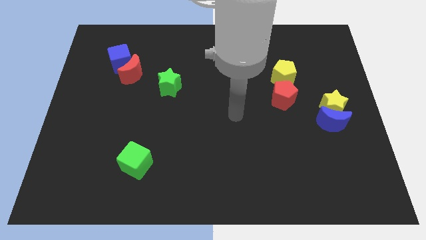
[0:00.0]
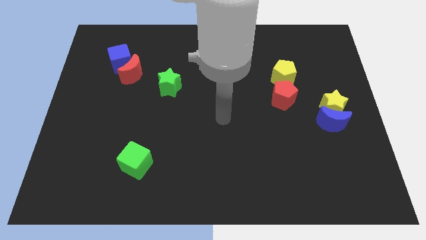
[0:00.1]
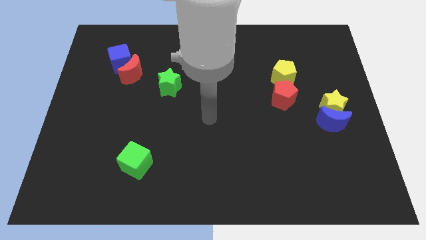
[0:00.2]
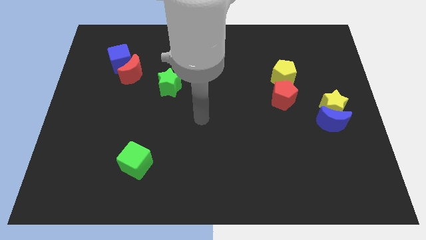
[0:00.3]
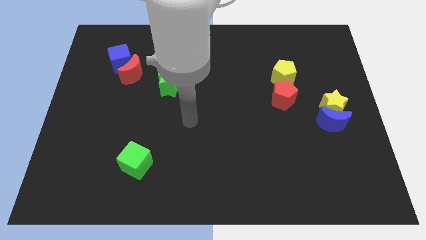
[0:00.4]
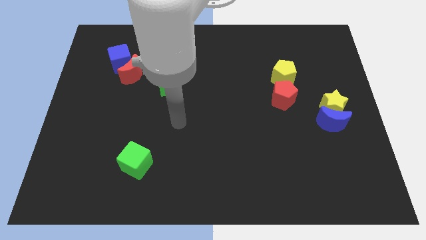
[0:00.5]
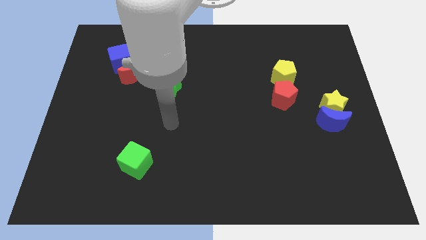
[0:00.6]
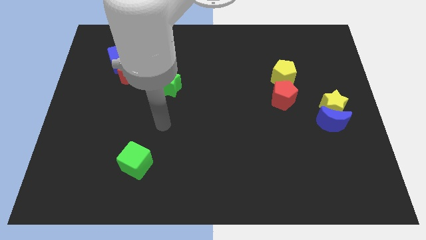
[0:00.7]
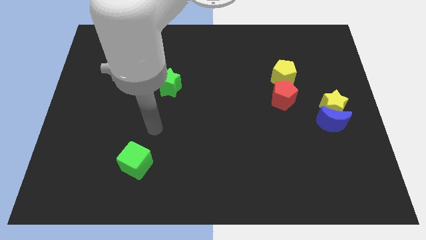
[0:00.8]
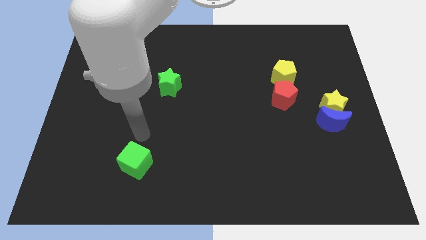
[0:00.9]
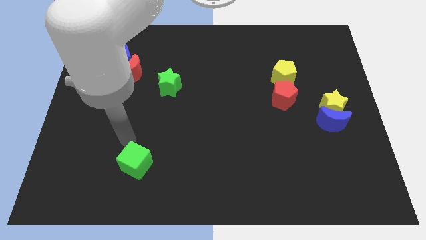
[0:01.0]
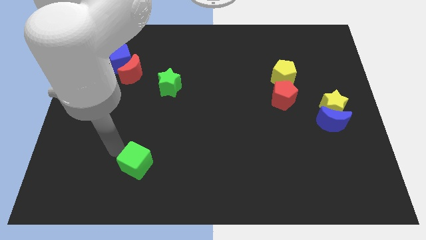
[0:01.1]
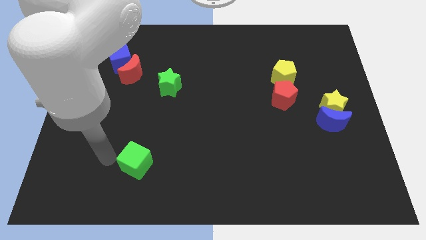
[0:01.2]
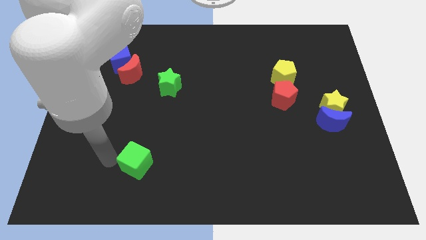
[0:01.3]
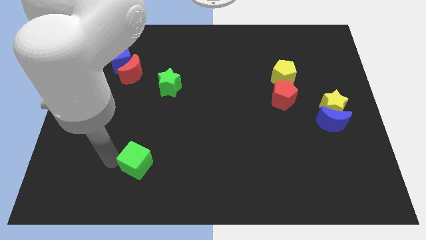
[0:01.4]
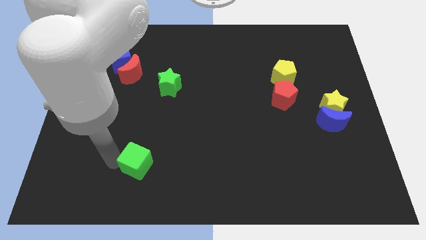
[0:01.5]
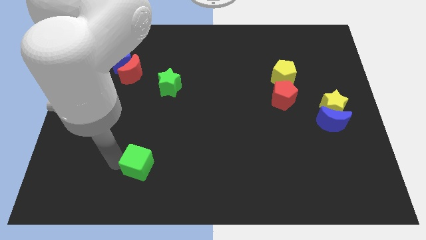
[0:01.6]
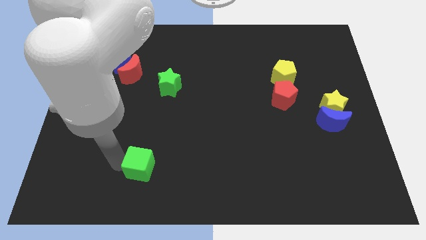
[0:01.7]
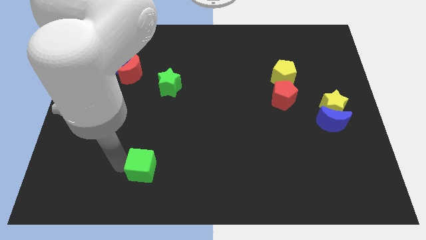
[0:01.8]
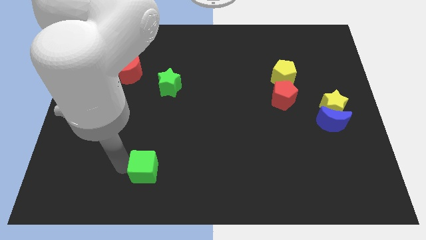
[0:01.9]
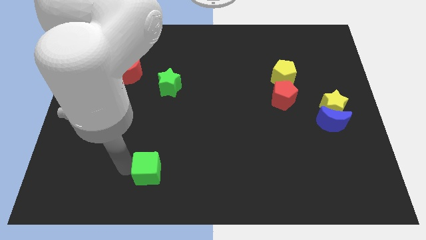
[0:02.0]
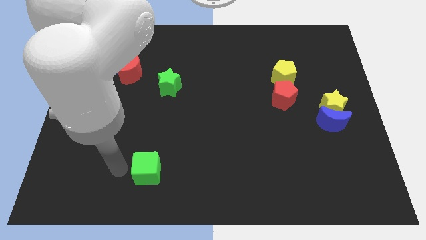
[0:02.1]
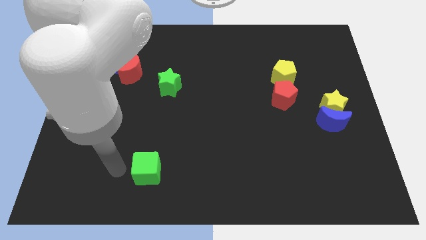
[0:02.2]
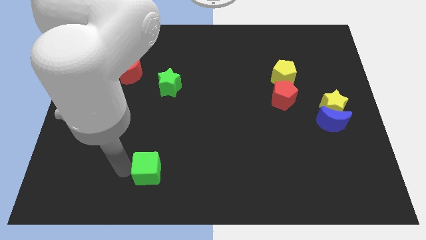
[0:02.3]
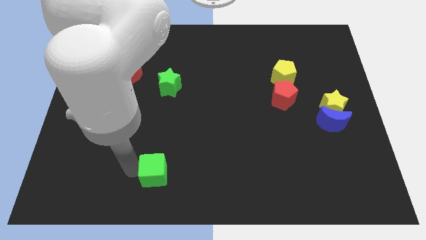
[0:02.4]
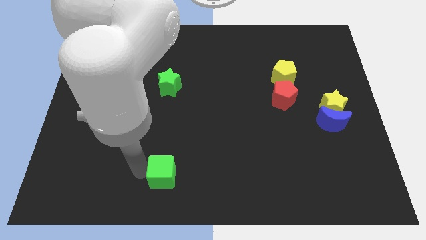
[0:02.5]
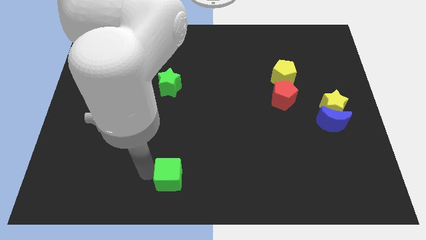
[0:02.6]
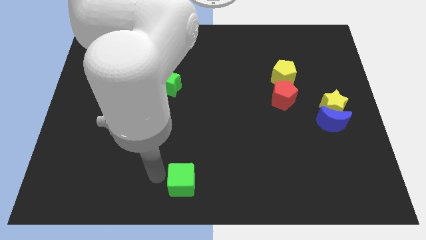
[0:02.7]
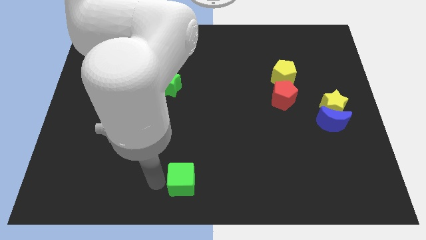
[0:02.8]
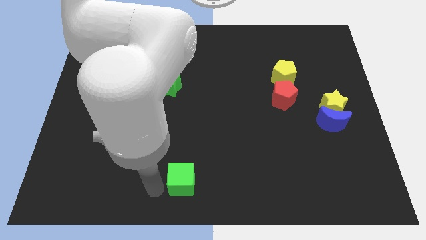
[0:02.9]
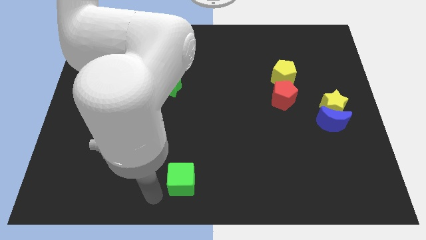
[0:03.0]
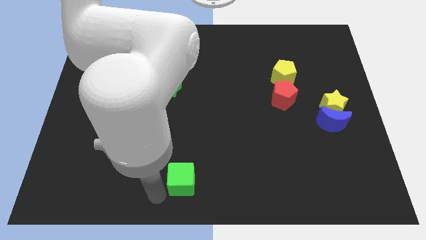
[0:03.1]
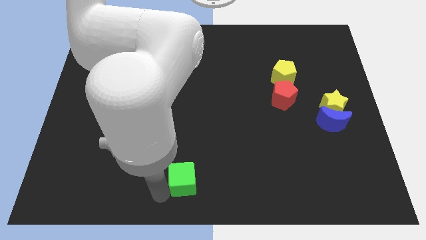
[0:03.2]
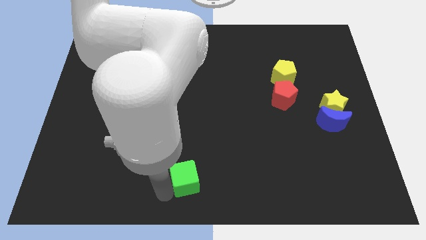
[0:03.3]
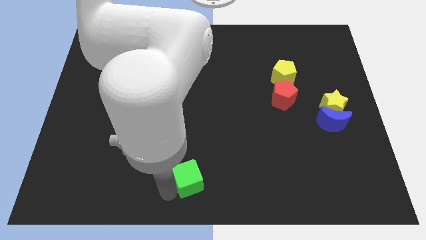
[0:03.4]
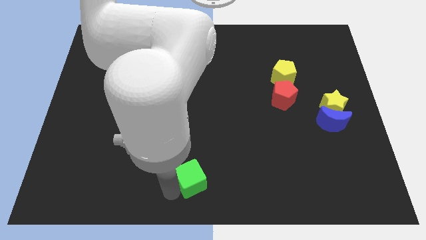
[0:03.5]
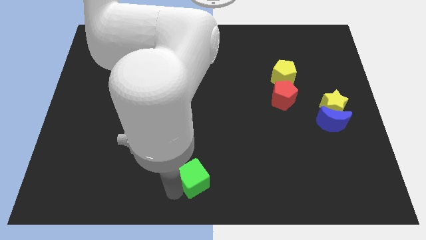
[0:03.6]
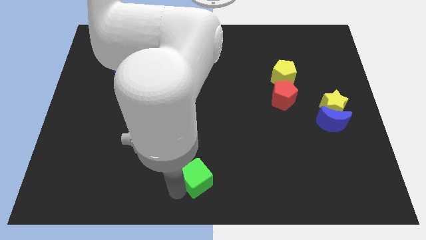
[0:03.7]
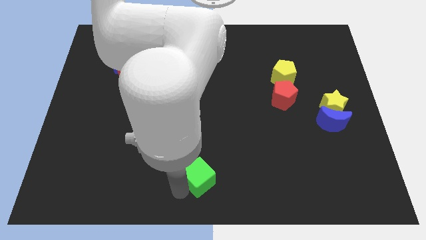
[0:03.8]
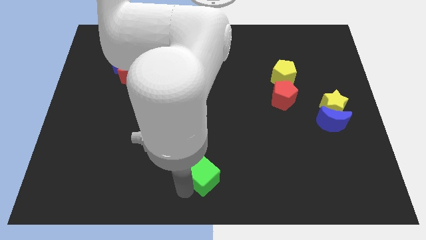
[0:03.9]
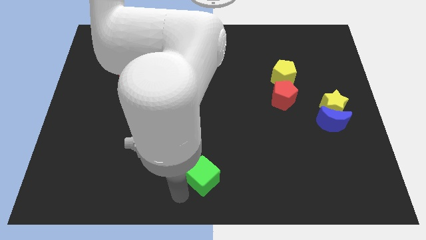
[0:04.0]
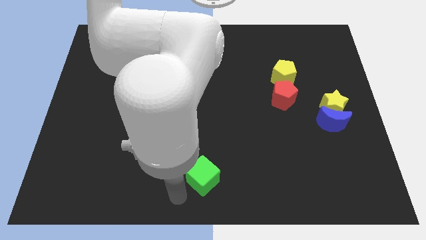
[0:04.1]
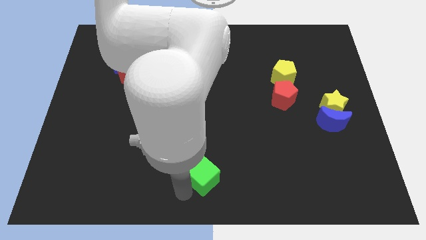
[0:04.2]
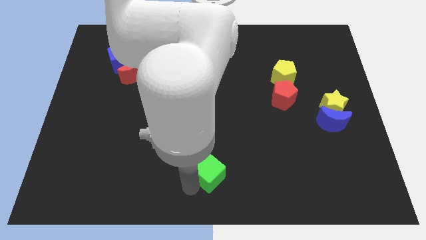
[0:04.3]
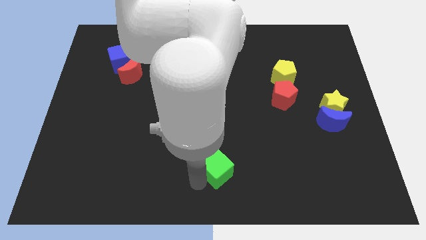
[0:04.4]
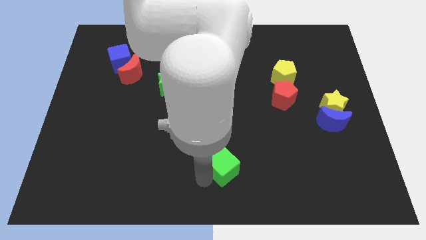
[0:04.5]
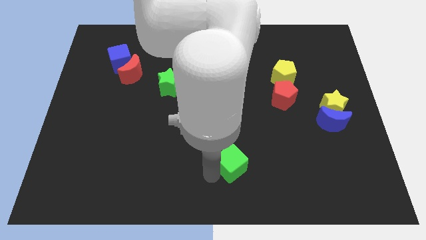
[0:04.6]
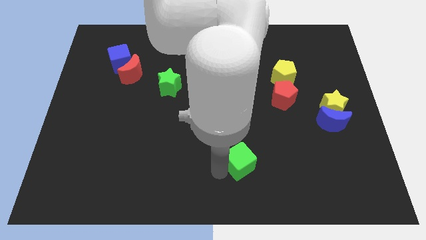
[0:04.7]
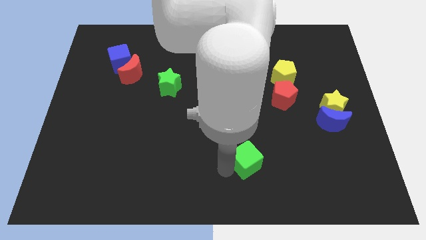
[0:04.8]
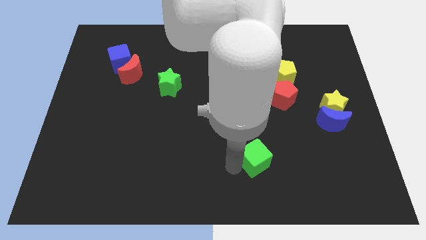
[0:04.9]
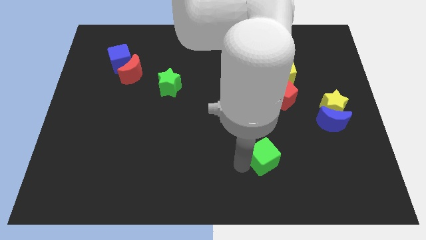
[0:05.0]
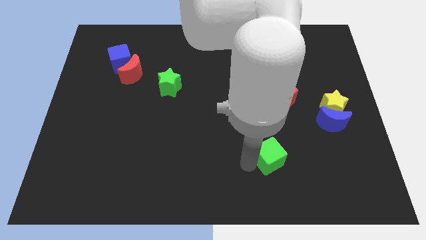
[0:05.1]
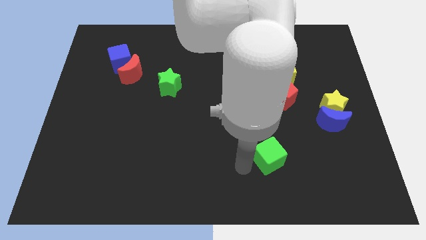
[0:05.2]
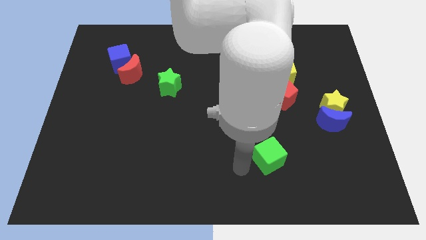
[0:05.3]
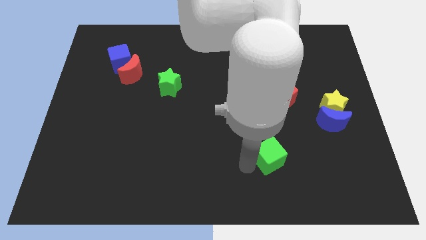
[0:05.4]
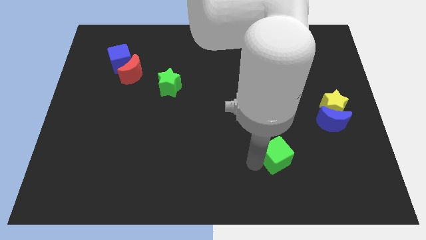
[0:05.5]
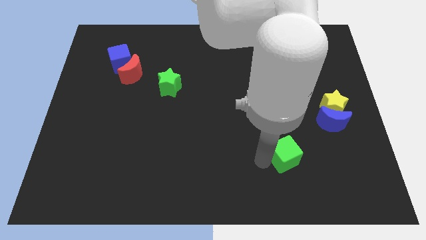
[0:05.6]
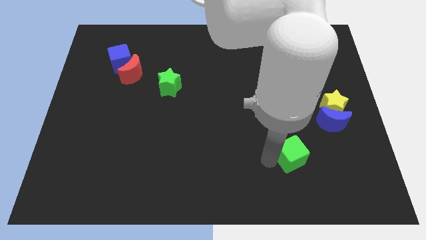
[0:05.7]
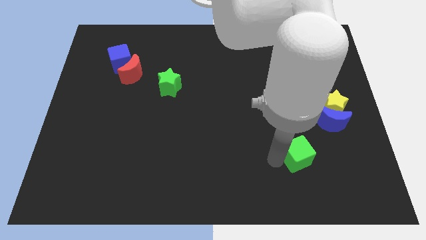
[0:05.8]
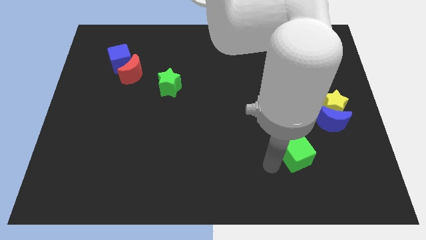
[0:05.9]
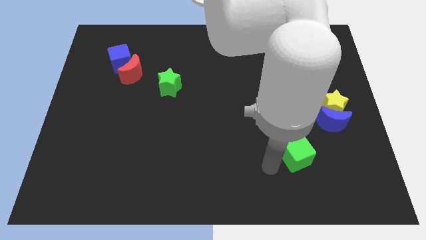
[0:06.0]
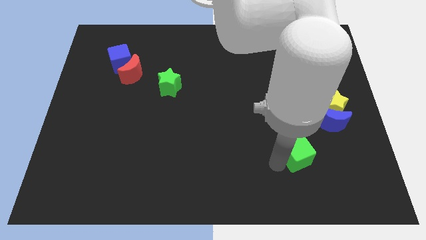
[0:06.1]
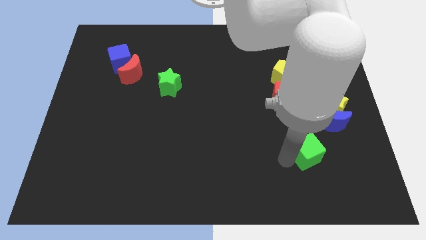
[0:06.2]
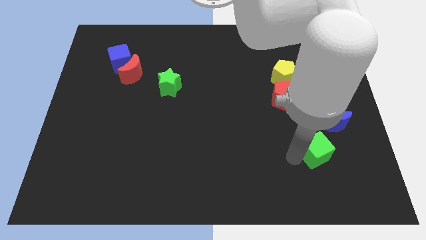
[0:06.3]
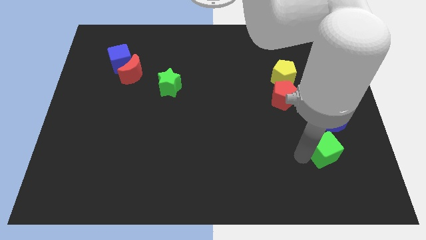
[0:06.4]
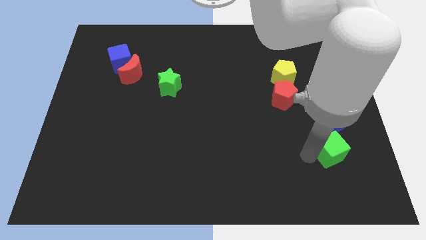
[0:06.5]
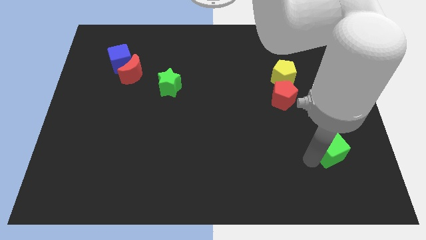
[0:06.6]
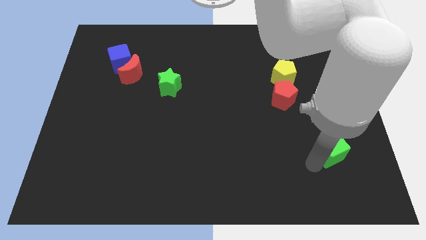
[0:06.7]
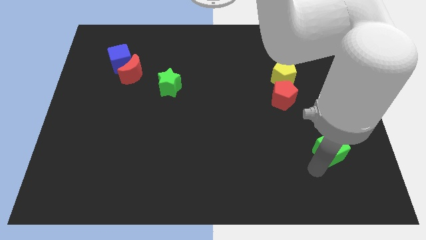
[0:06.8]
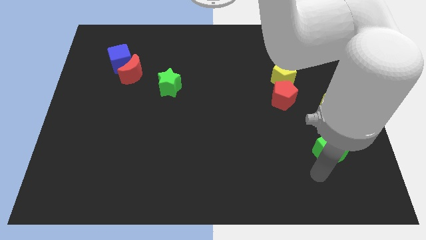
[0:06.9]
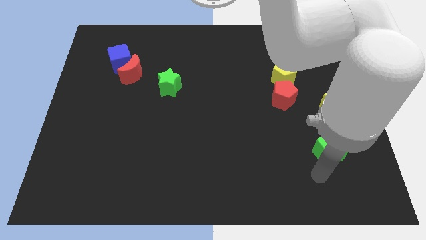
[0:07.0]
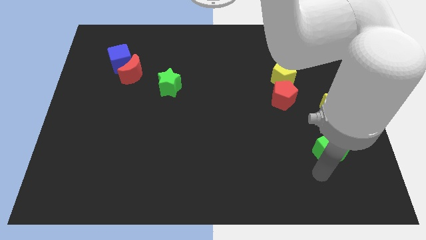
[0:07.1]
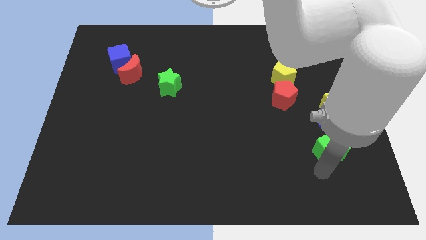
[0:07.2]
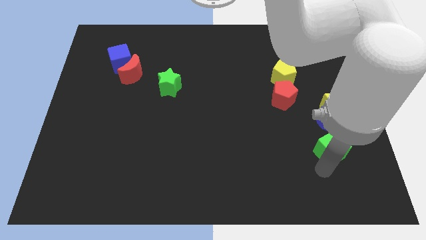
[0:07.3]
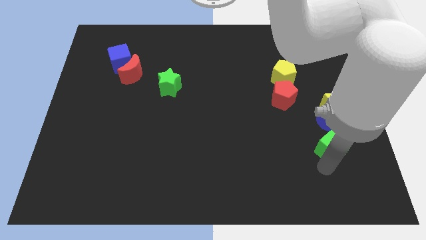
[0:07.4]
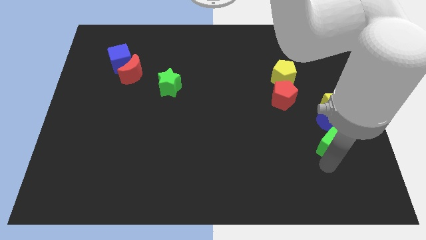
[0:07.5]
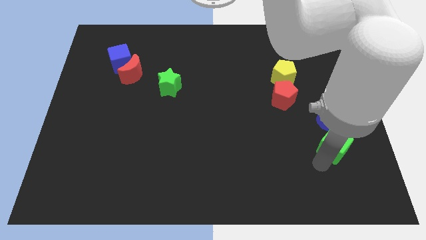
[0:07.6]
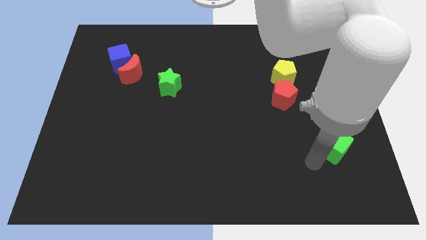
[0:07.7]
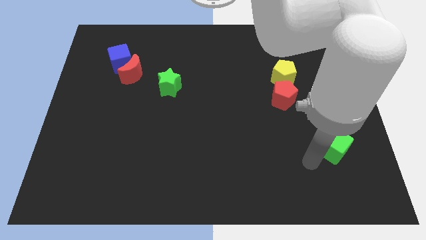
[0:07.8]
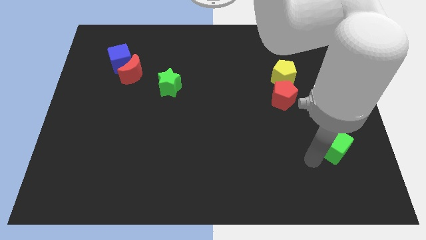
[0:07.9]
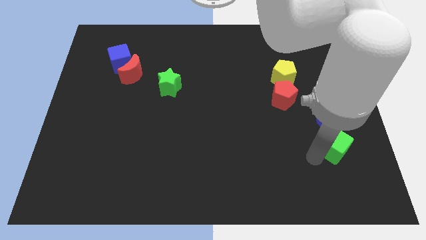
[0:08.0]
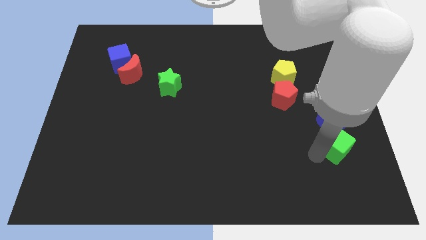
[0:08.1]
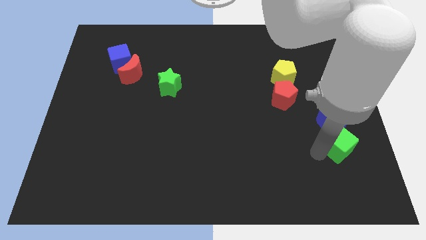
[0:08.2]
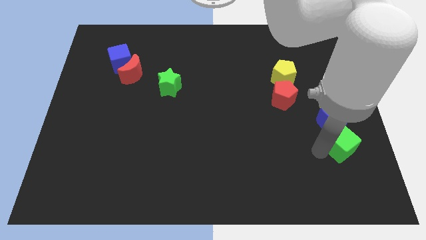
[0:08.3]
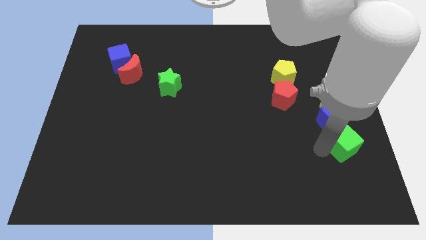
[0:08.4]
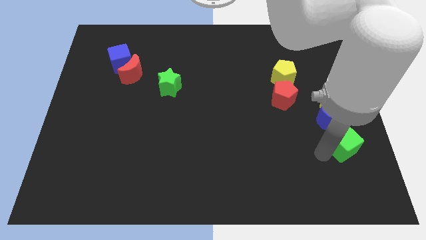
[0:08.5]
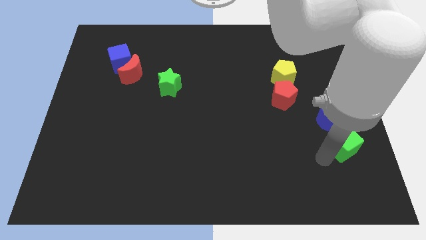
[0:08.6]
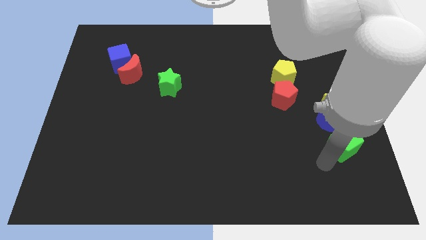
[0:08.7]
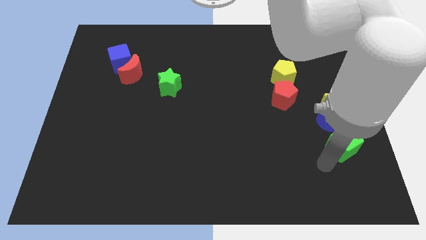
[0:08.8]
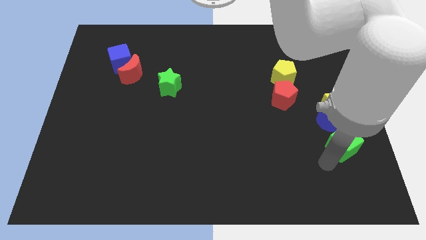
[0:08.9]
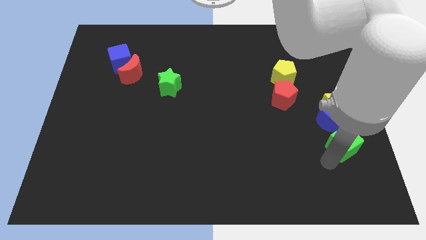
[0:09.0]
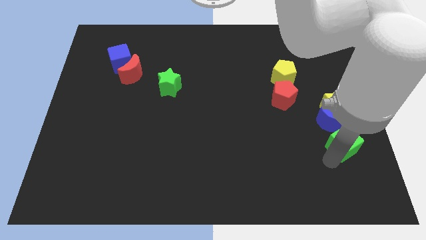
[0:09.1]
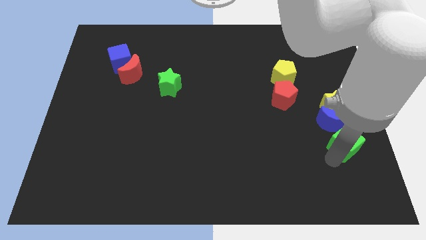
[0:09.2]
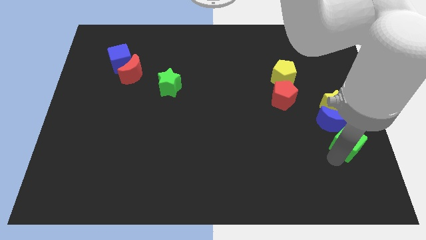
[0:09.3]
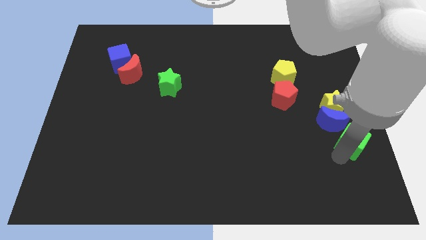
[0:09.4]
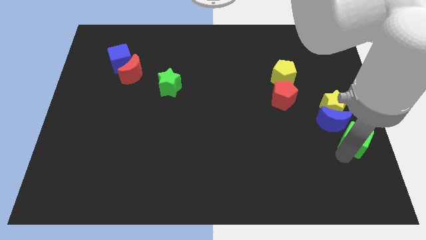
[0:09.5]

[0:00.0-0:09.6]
push the green cube to the center right
